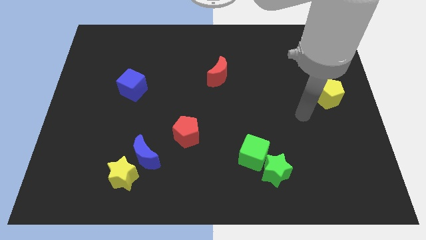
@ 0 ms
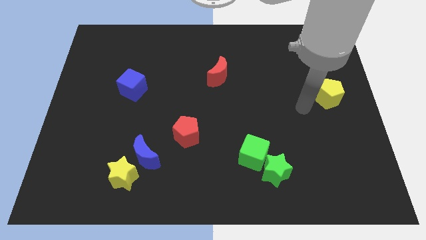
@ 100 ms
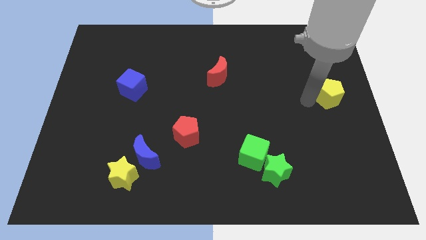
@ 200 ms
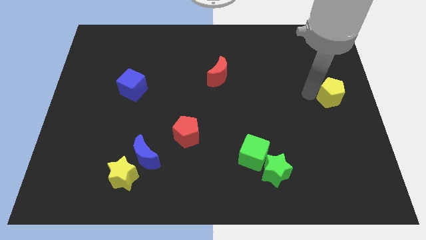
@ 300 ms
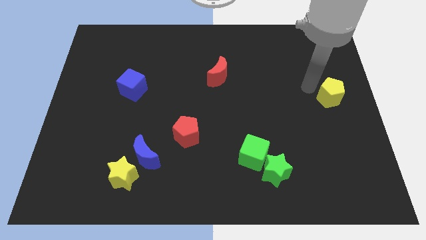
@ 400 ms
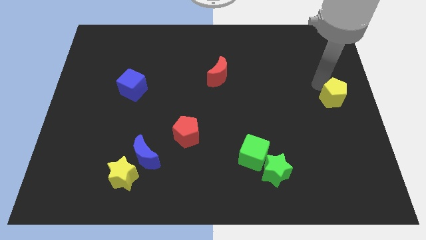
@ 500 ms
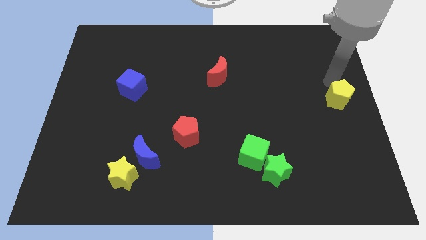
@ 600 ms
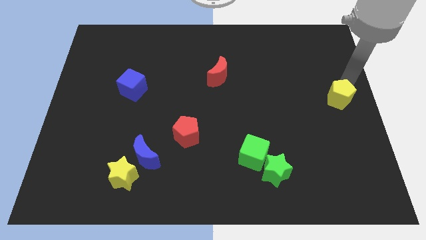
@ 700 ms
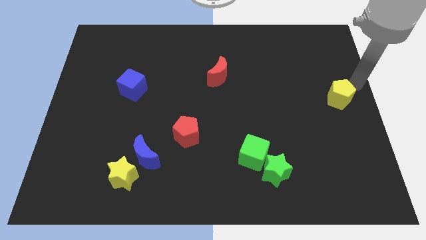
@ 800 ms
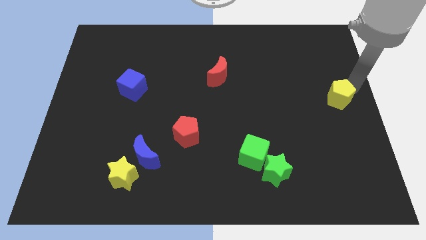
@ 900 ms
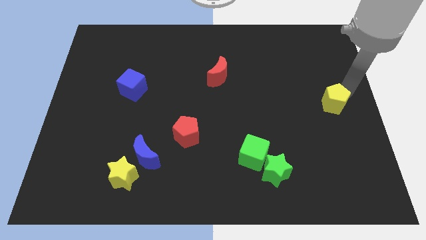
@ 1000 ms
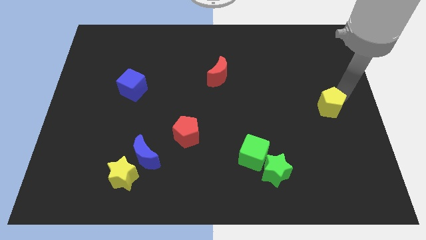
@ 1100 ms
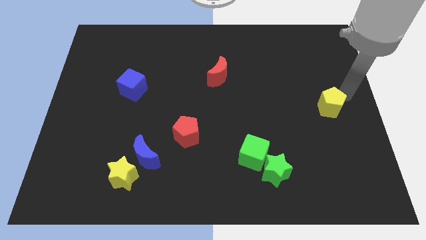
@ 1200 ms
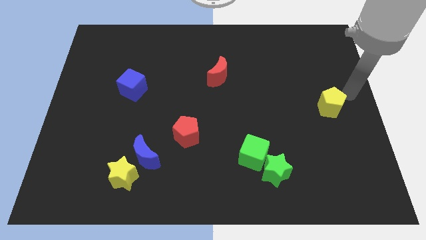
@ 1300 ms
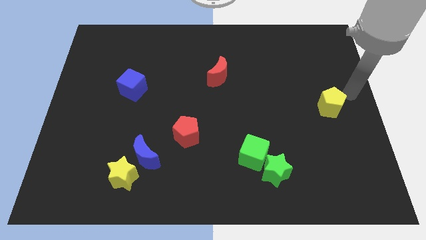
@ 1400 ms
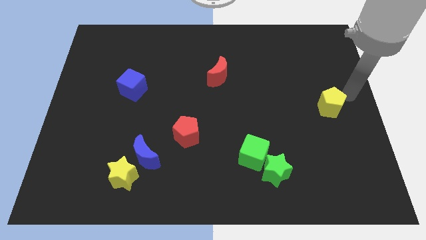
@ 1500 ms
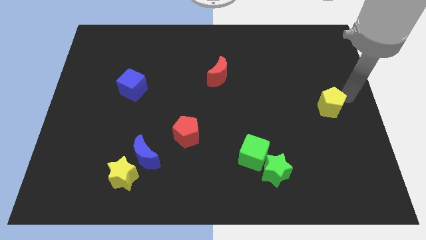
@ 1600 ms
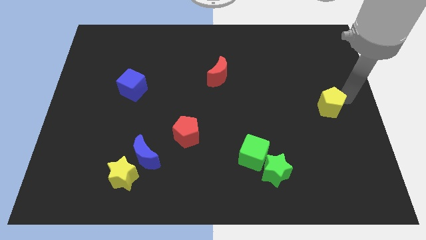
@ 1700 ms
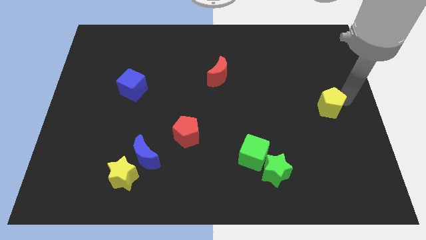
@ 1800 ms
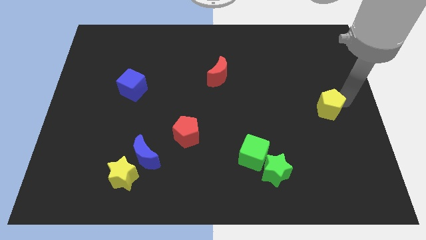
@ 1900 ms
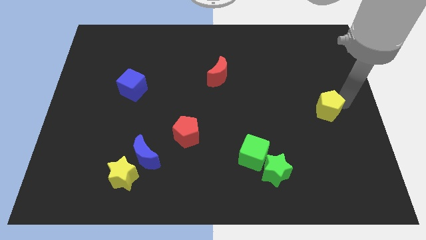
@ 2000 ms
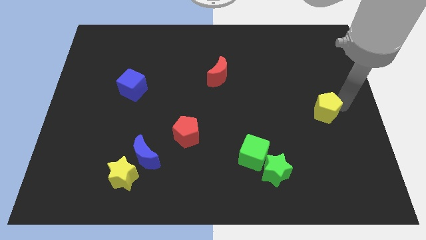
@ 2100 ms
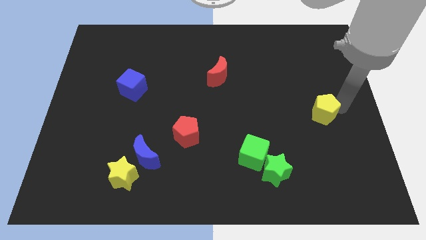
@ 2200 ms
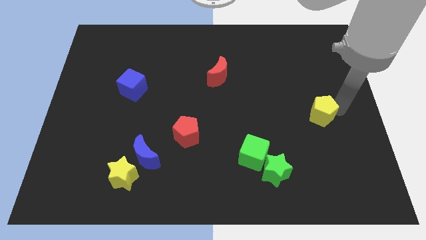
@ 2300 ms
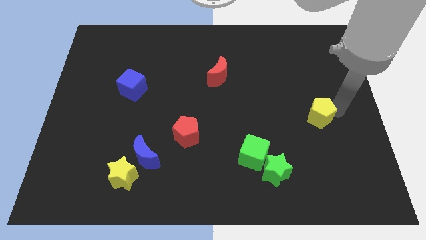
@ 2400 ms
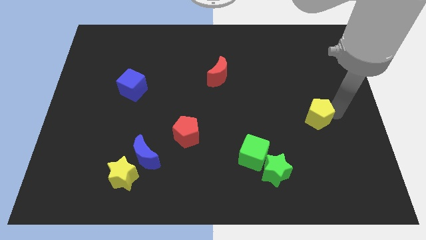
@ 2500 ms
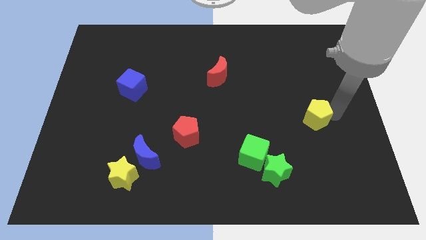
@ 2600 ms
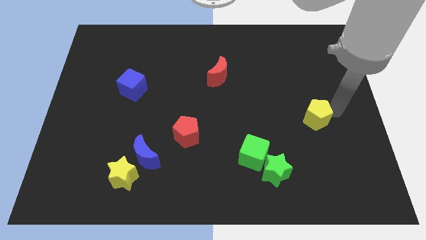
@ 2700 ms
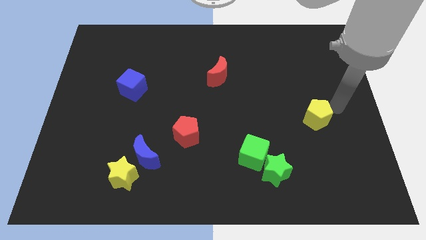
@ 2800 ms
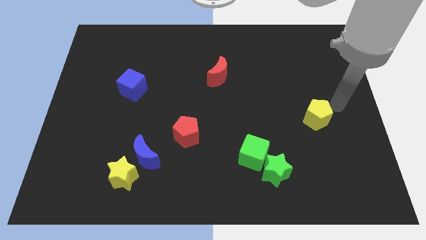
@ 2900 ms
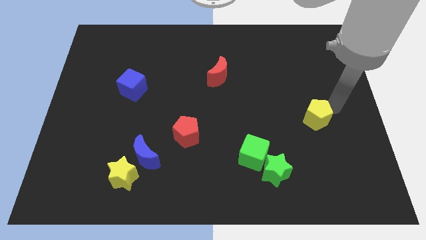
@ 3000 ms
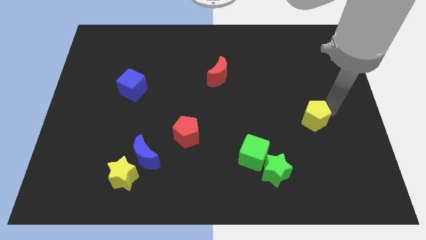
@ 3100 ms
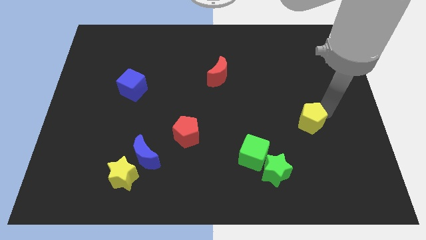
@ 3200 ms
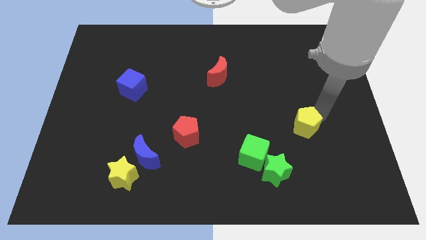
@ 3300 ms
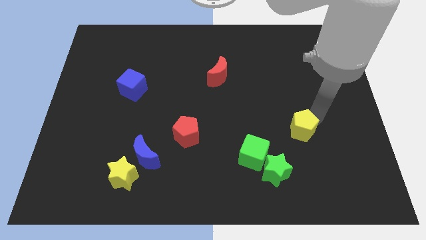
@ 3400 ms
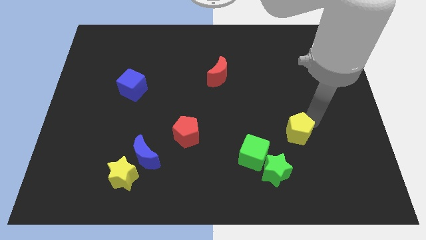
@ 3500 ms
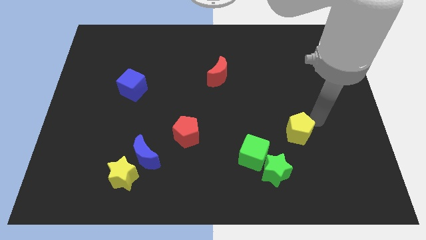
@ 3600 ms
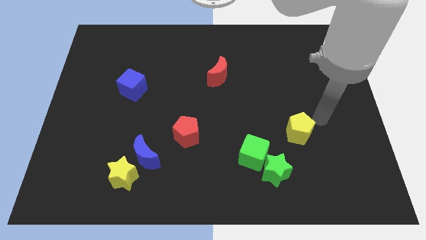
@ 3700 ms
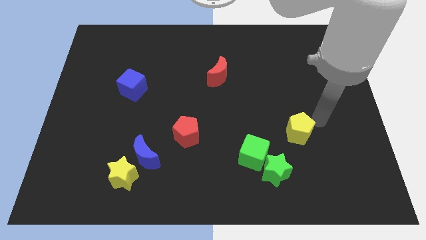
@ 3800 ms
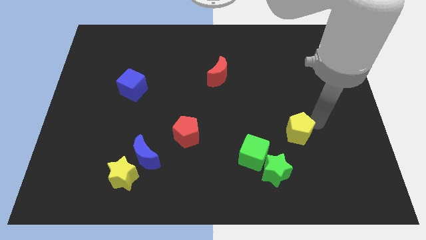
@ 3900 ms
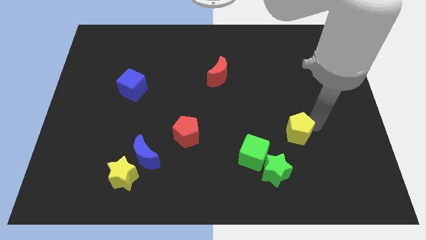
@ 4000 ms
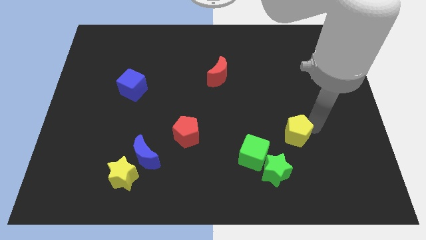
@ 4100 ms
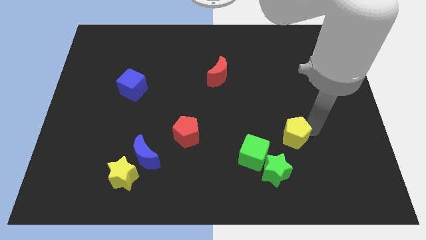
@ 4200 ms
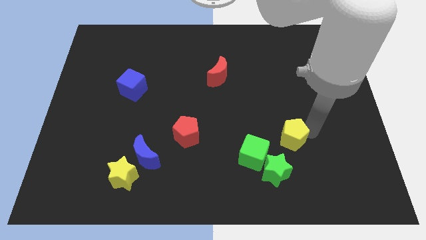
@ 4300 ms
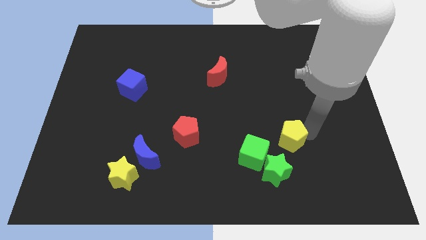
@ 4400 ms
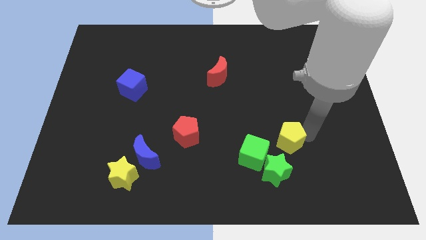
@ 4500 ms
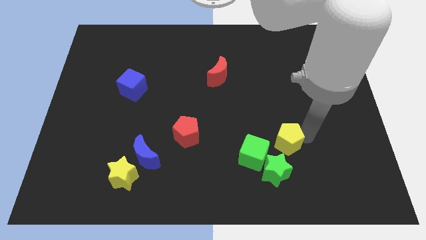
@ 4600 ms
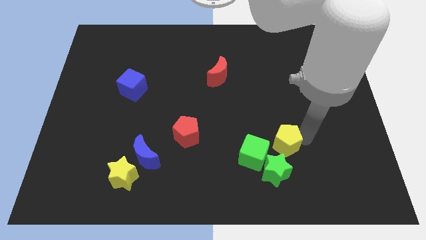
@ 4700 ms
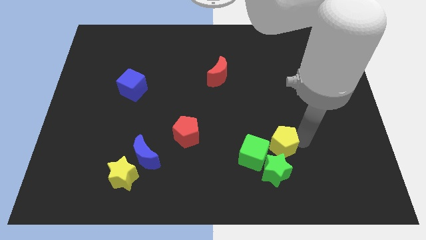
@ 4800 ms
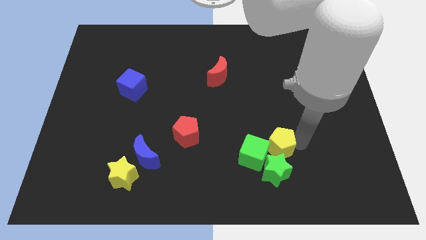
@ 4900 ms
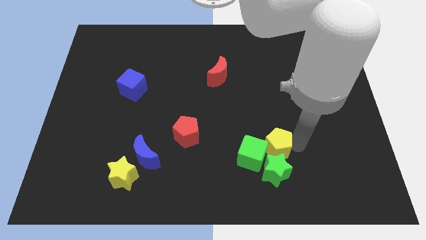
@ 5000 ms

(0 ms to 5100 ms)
push the yellow pentagon next to the green cube

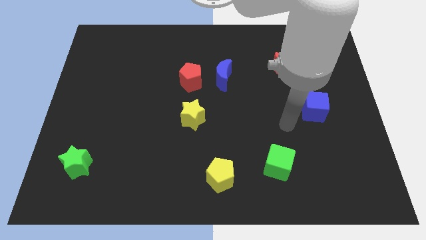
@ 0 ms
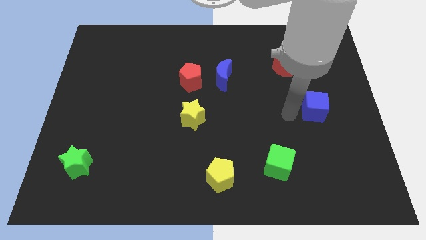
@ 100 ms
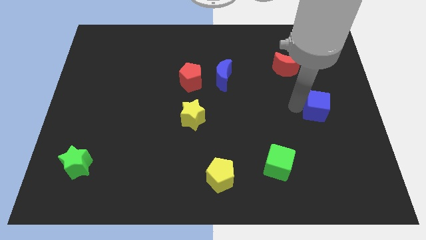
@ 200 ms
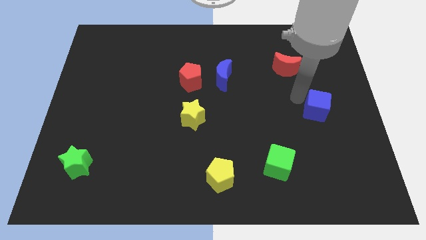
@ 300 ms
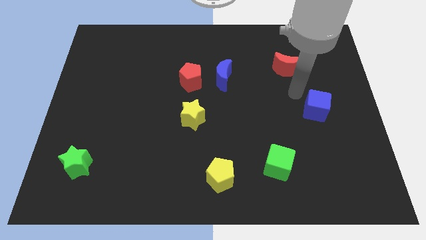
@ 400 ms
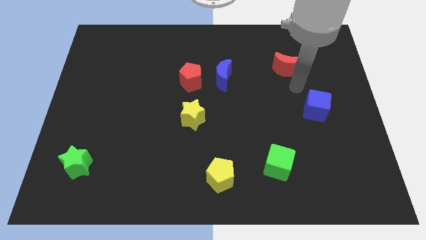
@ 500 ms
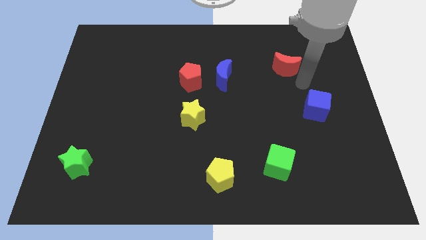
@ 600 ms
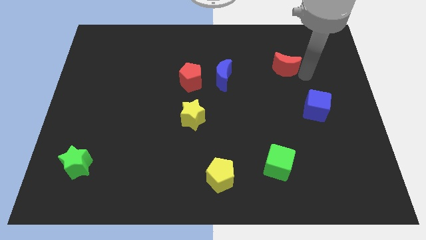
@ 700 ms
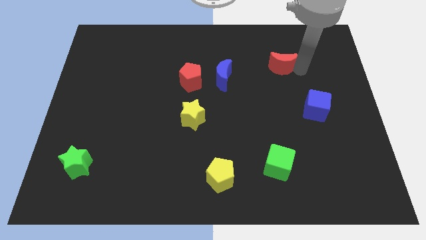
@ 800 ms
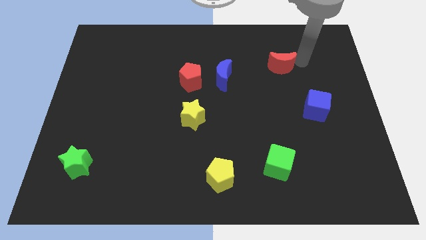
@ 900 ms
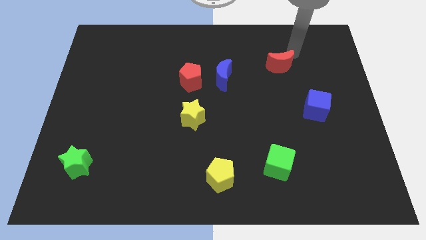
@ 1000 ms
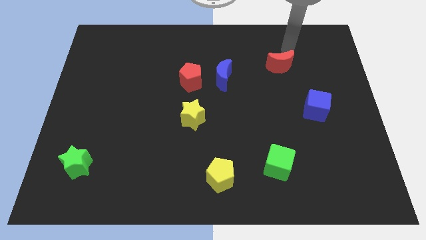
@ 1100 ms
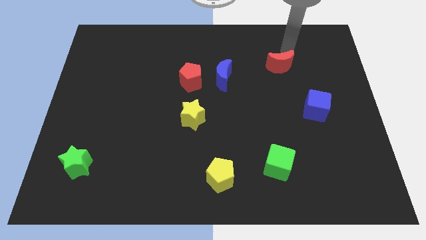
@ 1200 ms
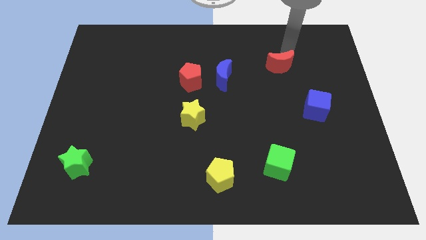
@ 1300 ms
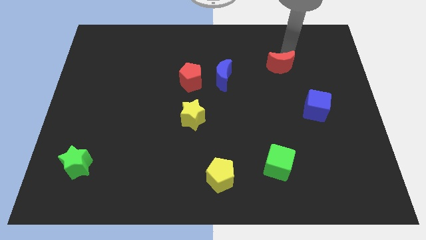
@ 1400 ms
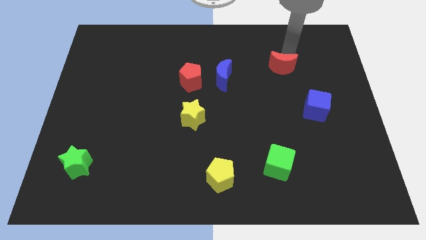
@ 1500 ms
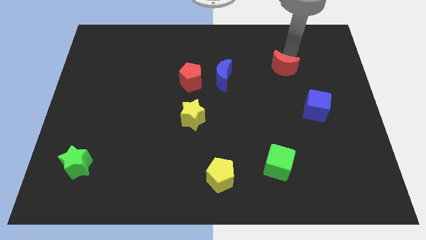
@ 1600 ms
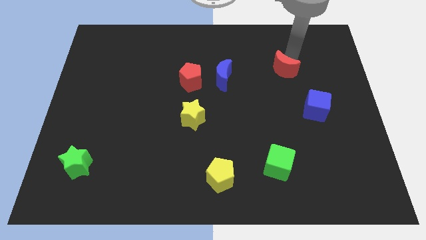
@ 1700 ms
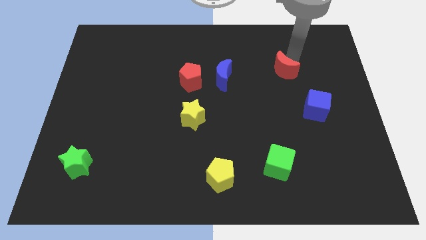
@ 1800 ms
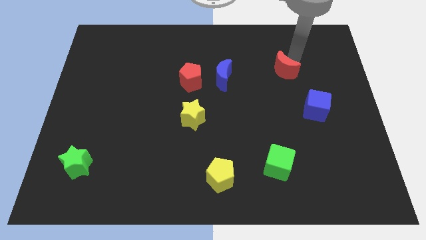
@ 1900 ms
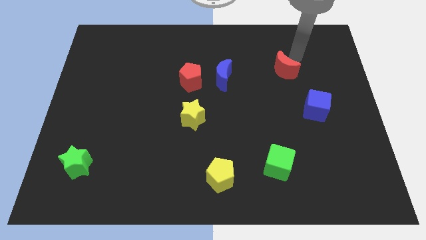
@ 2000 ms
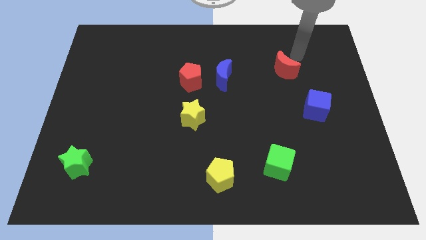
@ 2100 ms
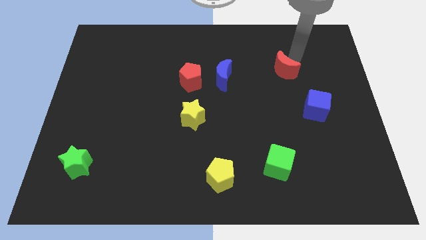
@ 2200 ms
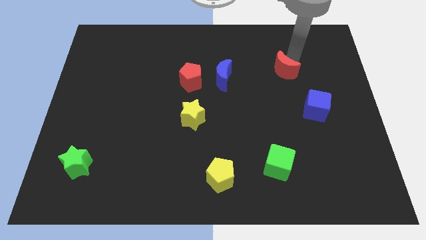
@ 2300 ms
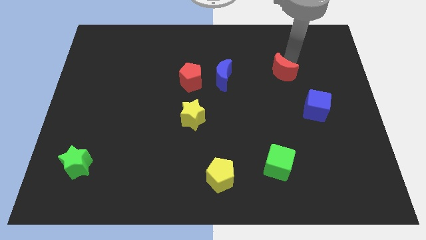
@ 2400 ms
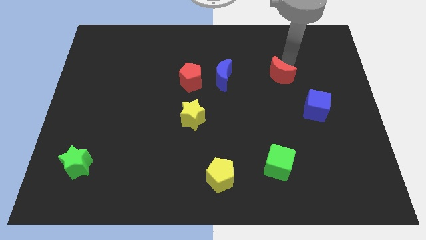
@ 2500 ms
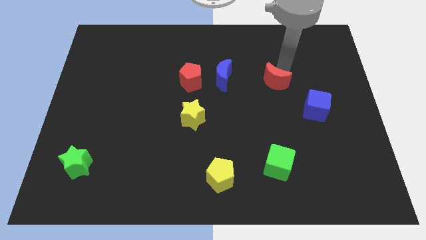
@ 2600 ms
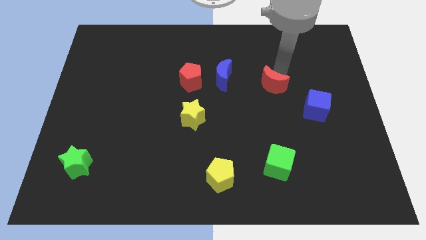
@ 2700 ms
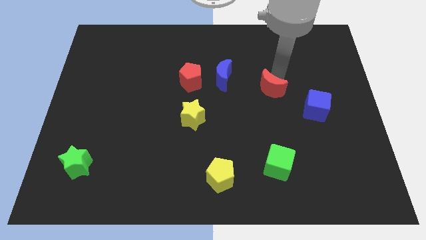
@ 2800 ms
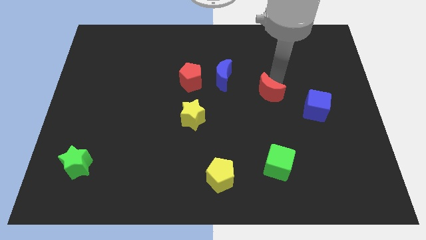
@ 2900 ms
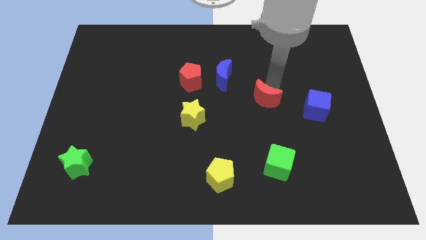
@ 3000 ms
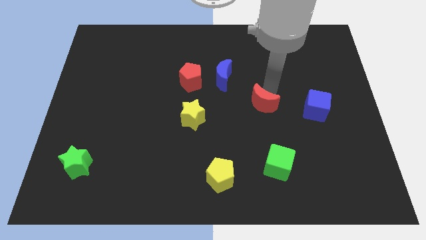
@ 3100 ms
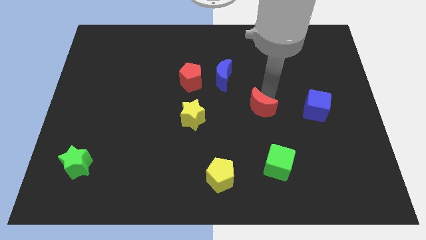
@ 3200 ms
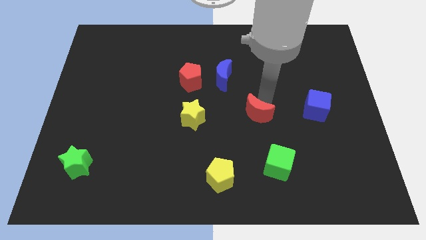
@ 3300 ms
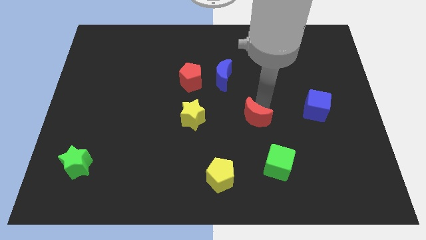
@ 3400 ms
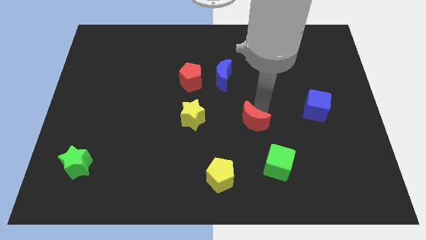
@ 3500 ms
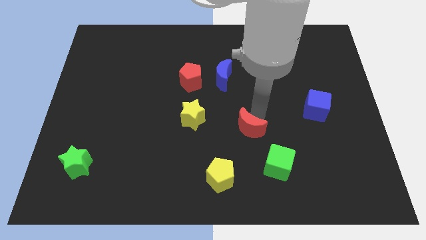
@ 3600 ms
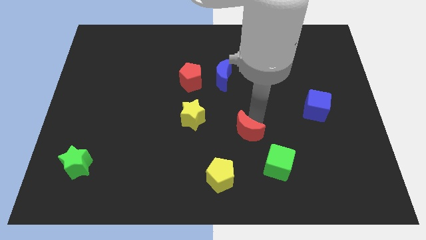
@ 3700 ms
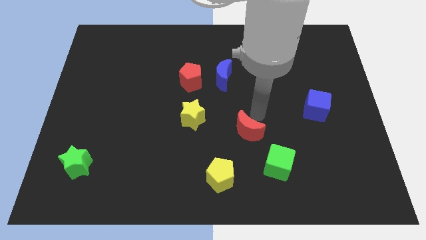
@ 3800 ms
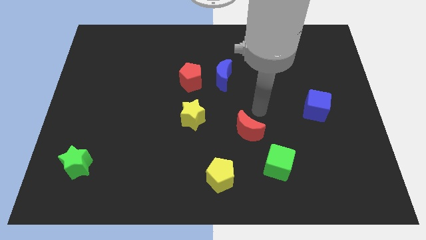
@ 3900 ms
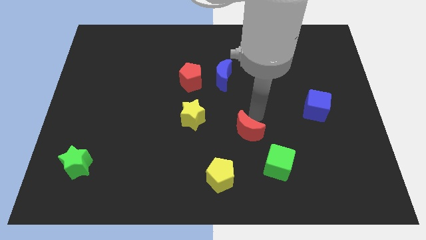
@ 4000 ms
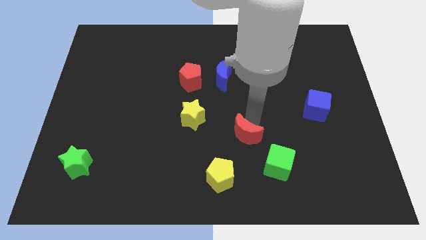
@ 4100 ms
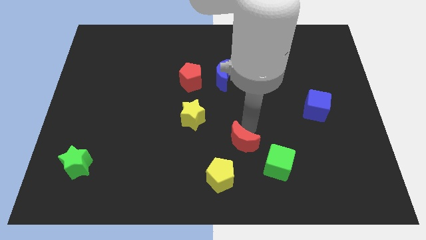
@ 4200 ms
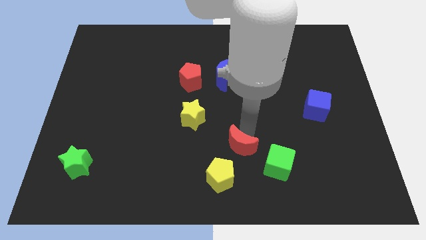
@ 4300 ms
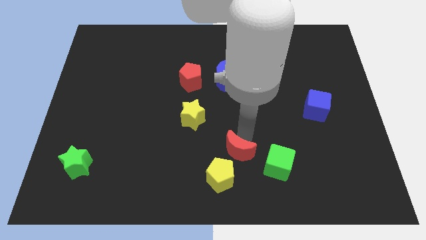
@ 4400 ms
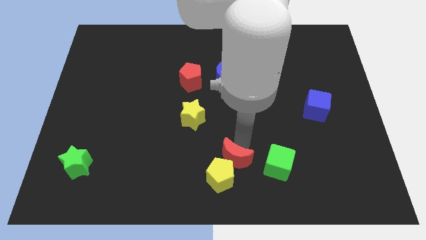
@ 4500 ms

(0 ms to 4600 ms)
put the red moon close to the yellow pentagon
